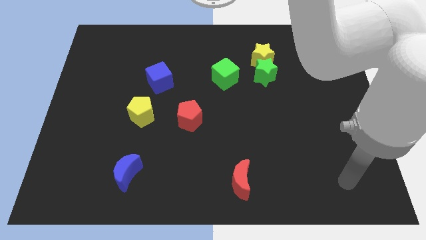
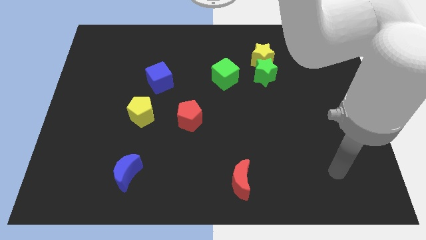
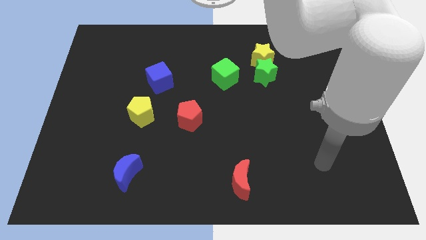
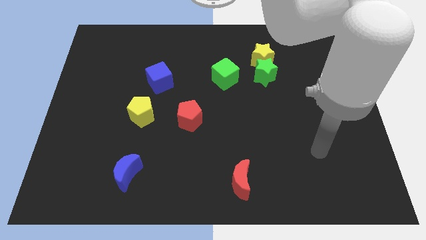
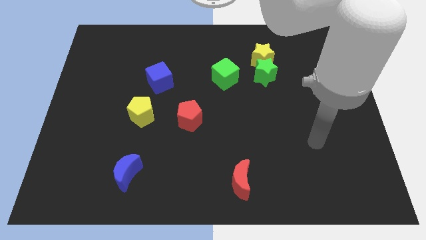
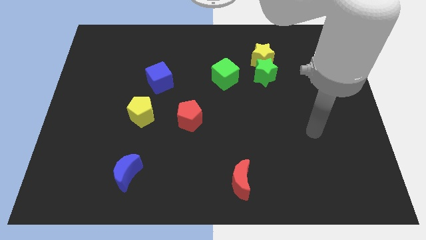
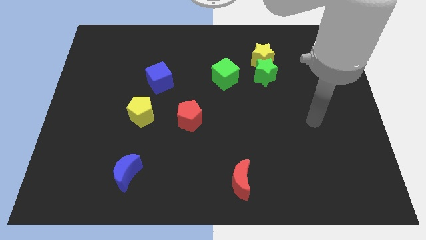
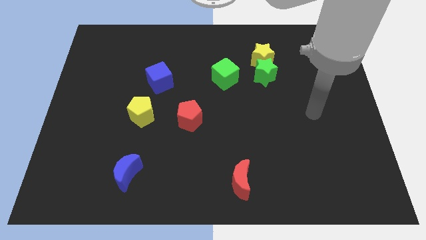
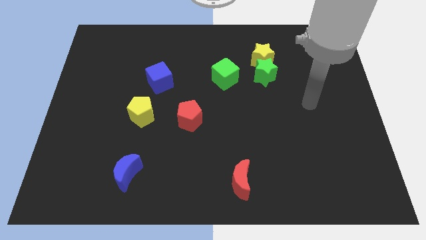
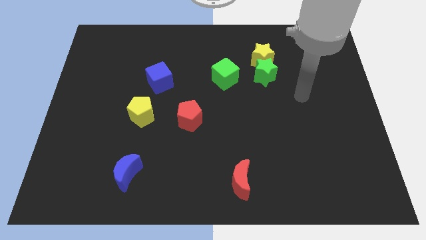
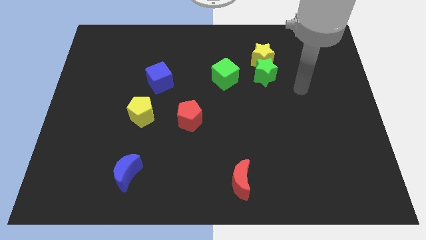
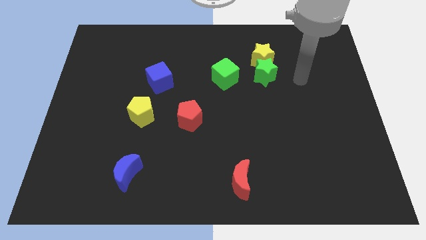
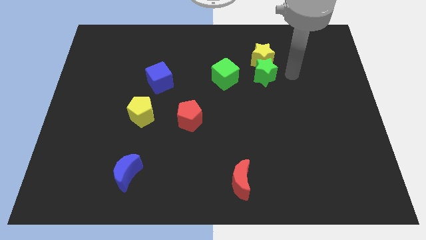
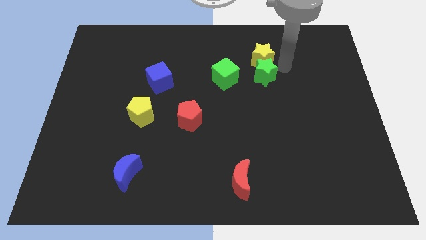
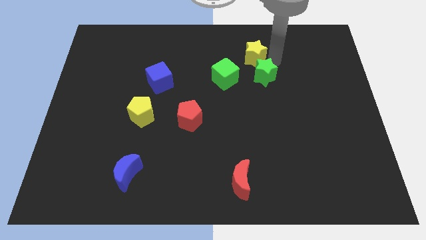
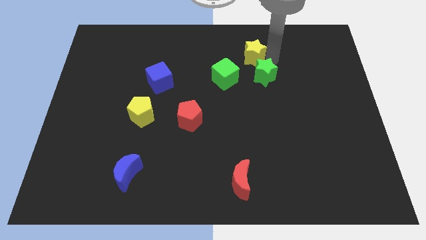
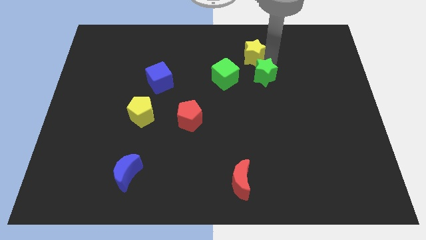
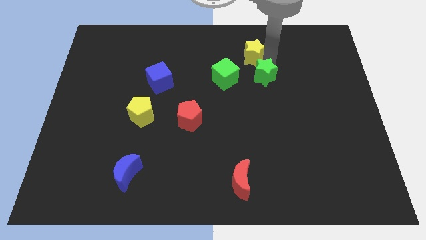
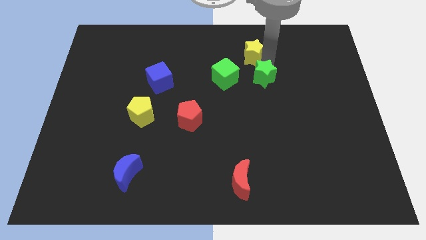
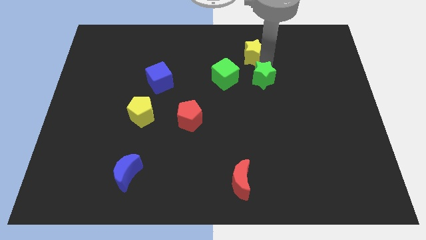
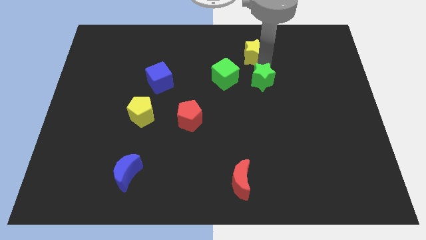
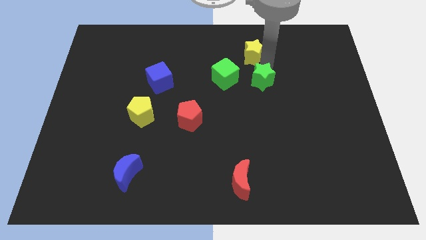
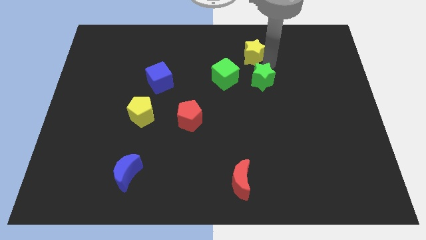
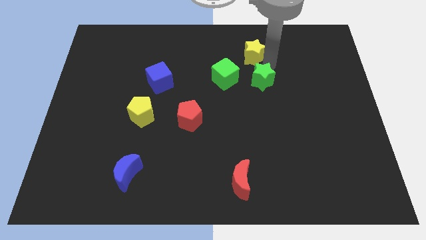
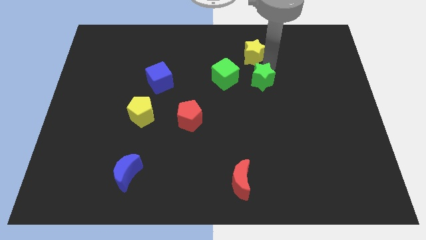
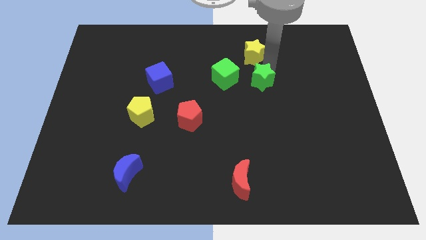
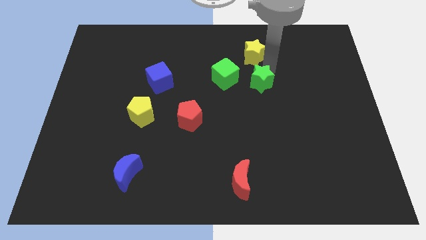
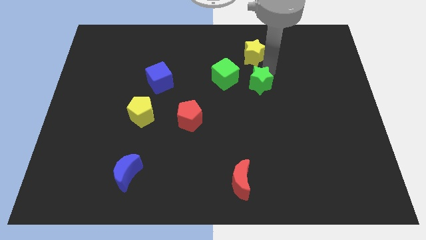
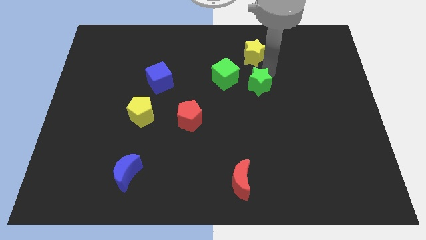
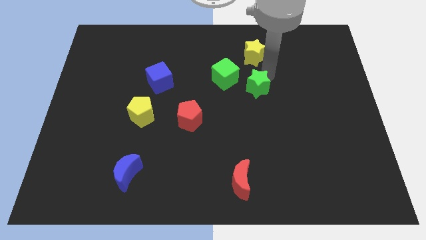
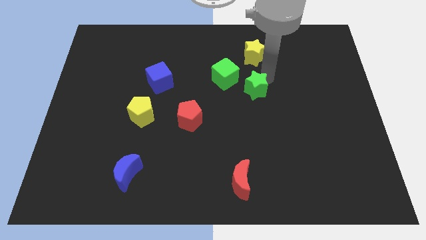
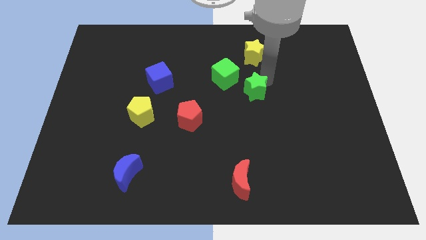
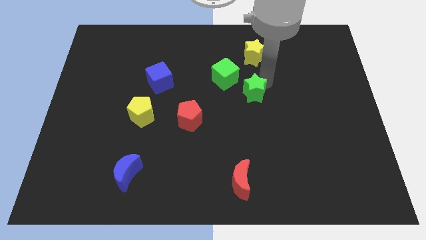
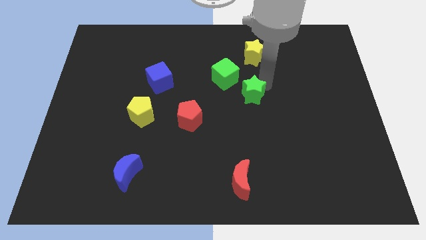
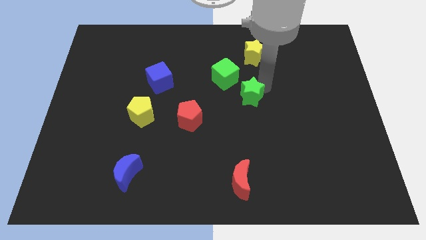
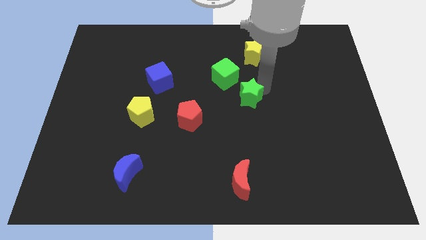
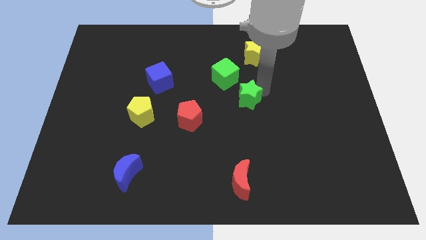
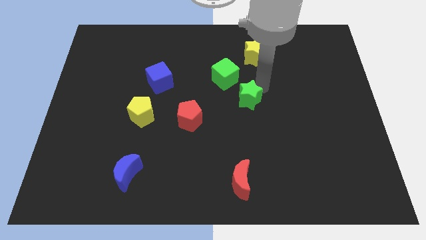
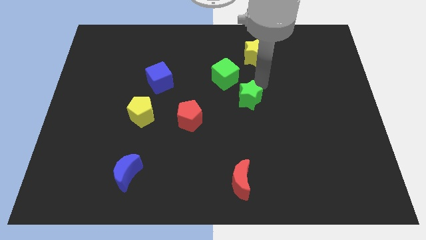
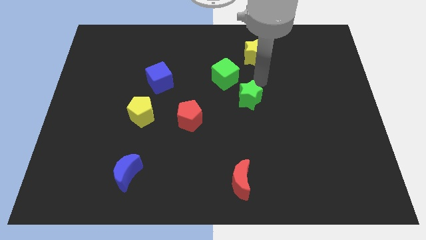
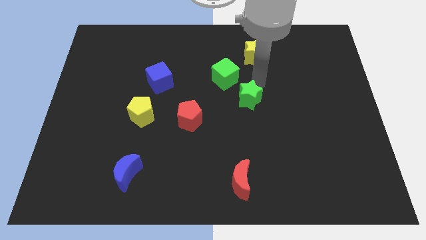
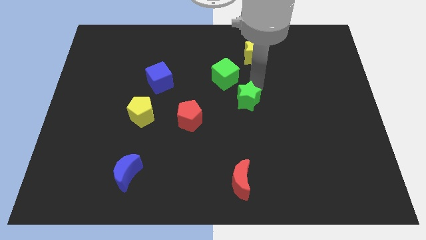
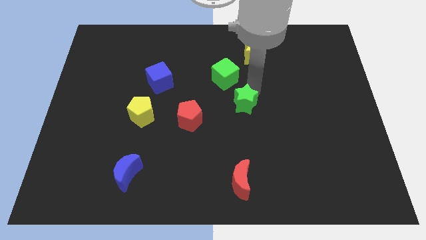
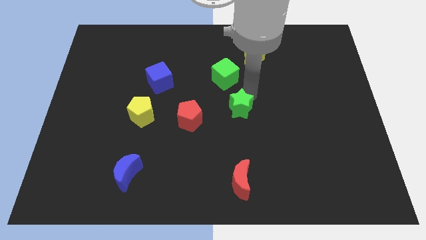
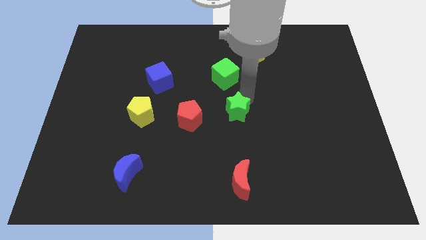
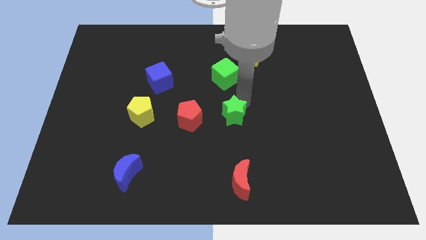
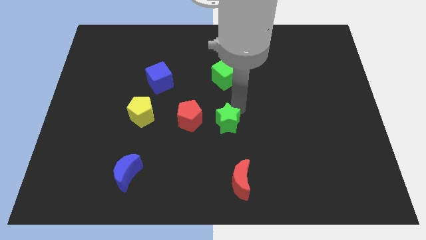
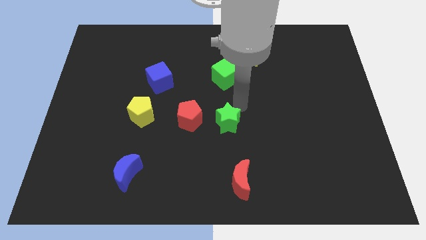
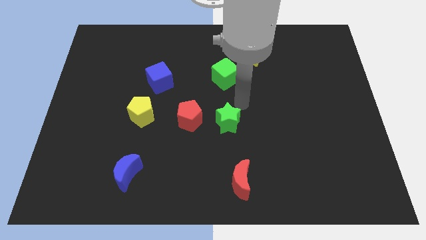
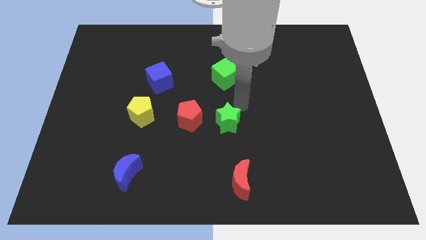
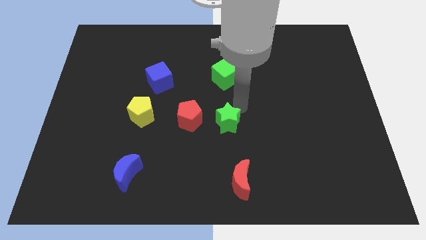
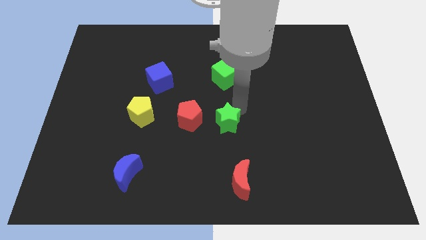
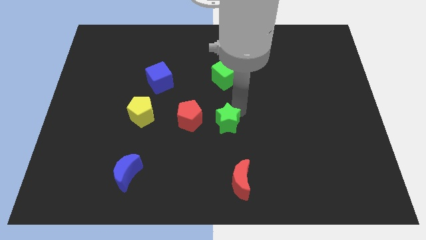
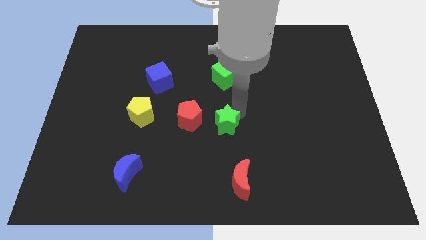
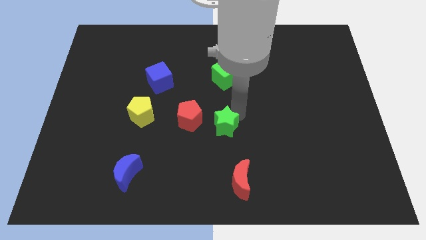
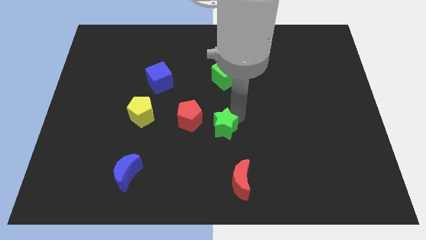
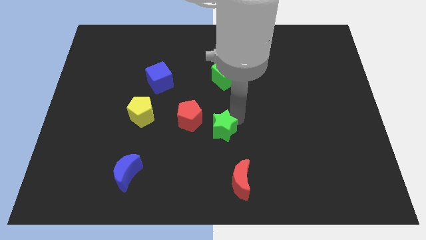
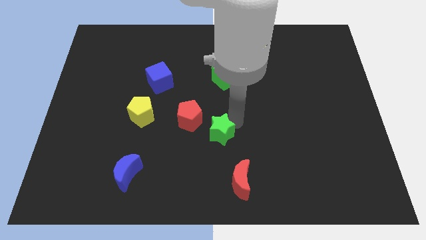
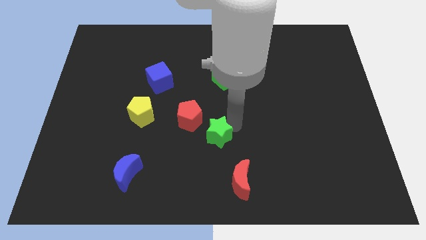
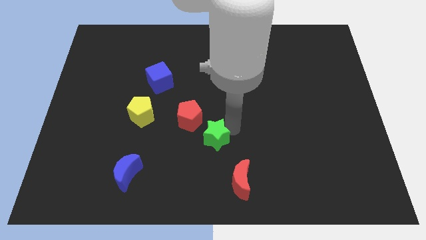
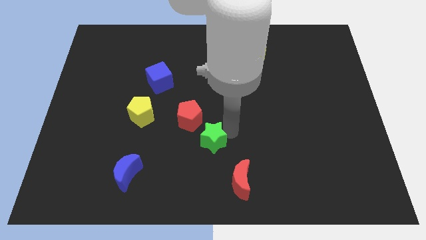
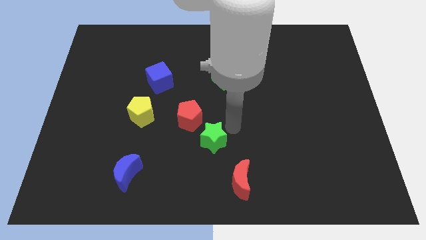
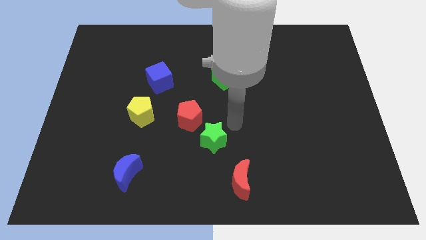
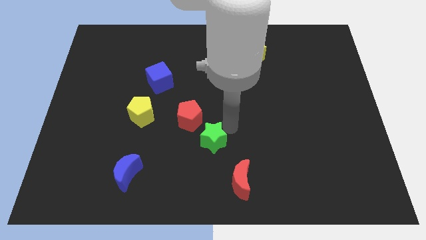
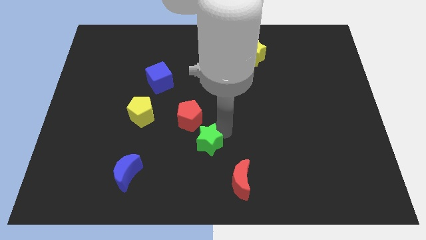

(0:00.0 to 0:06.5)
put the green star to the bottom side of the red pentagon

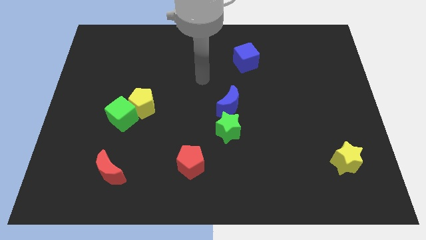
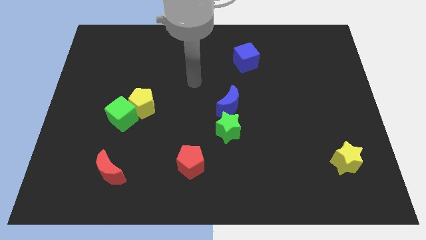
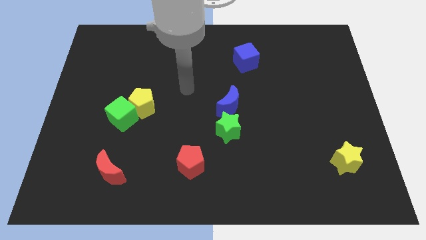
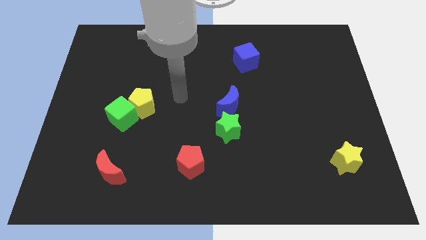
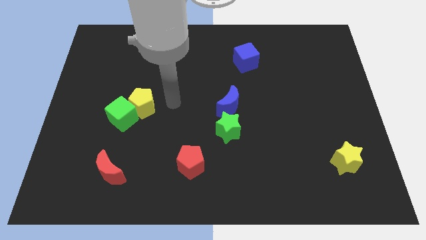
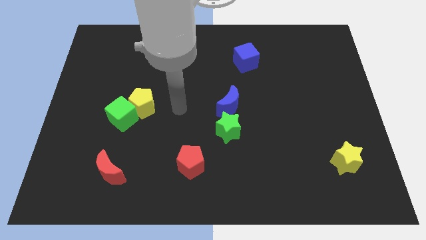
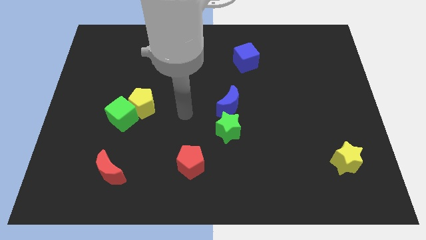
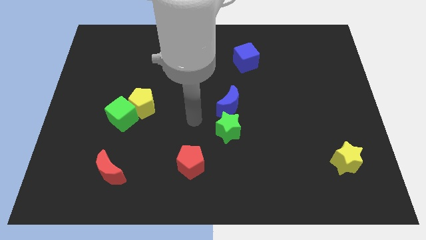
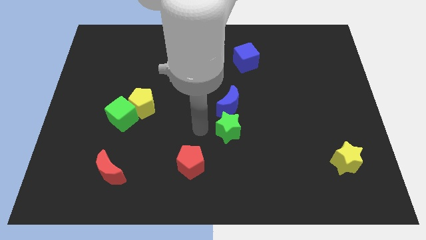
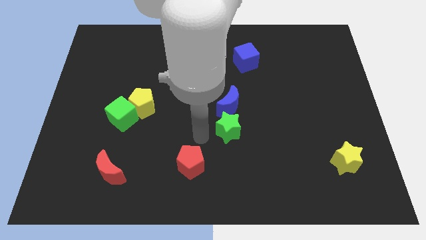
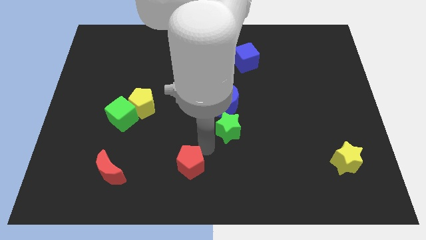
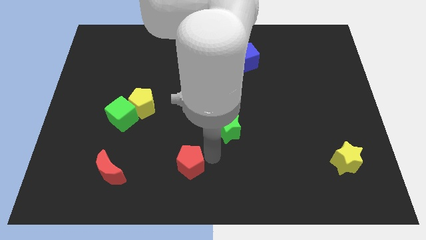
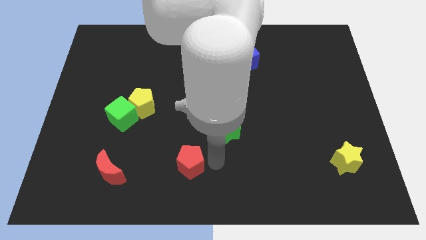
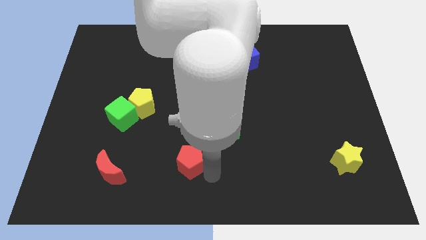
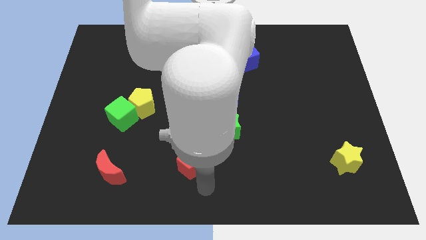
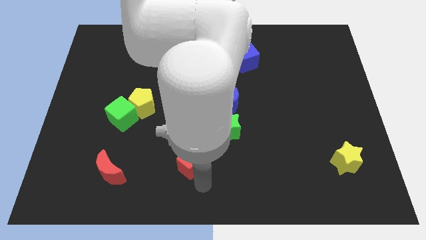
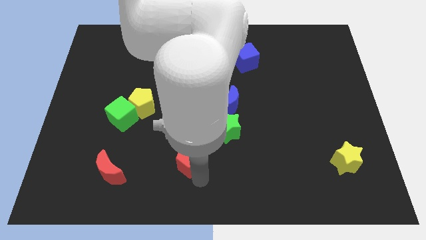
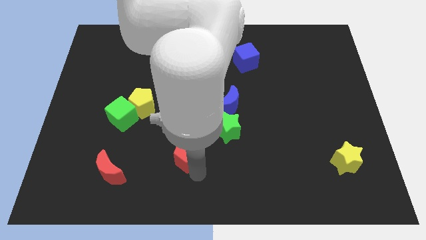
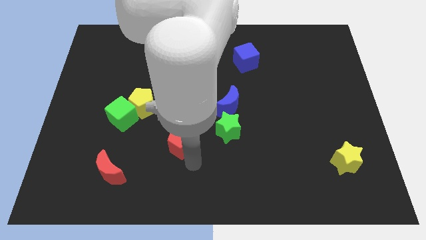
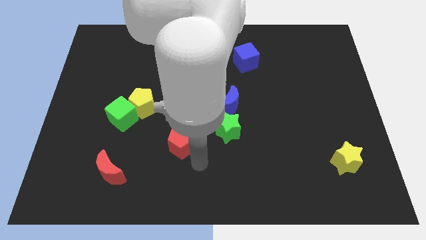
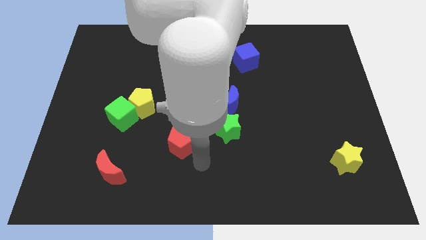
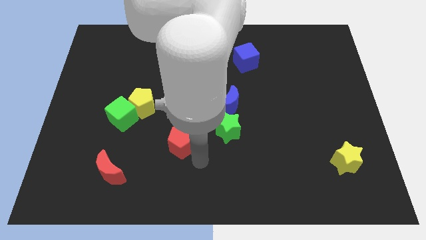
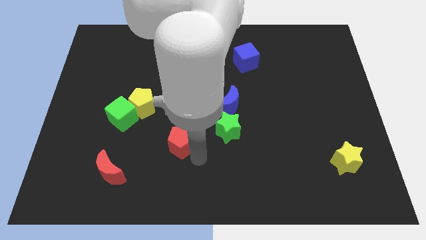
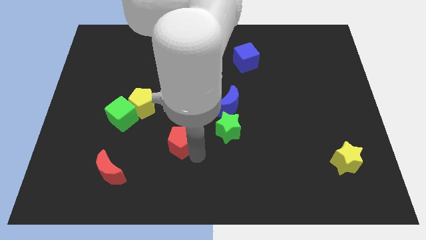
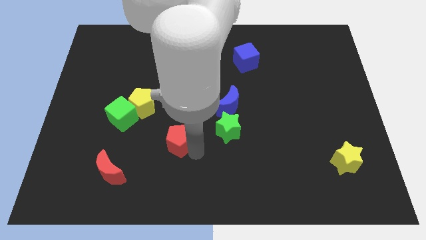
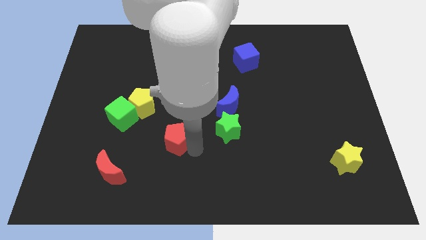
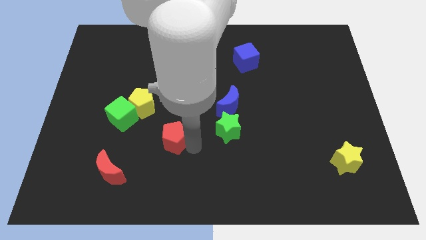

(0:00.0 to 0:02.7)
move the red pentagon diagonally down and to the right of the yellow pentagon
